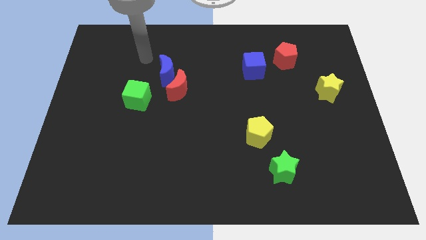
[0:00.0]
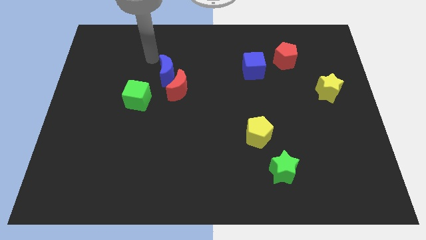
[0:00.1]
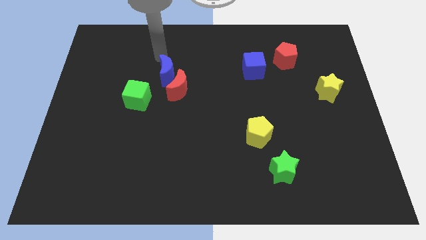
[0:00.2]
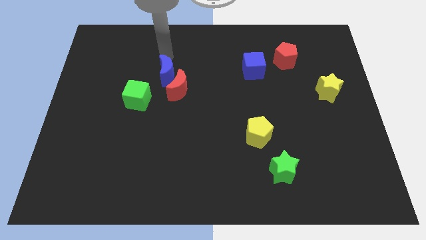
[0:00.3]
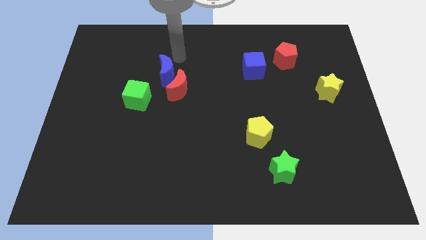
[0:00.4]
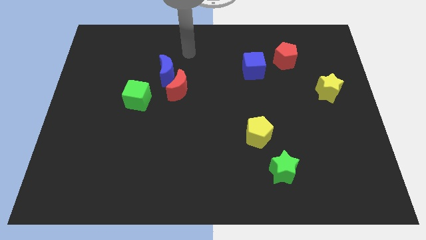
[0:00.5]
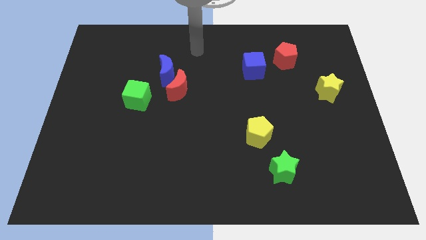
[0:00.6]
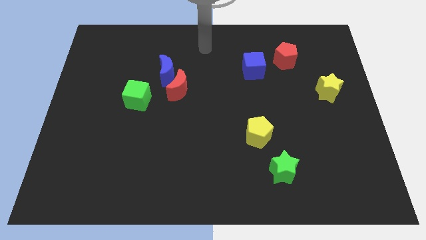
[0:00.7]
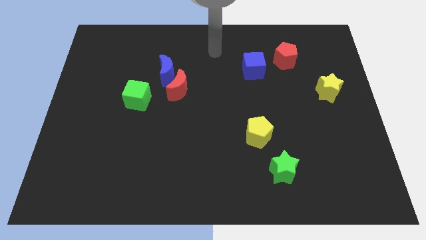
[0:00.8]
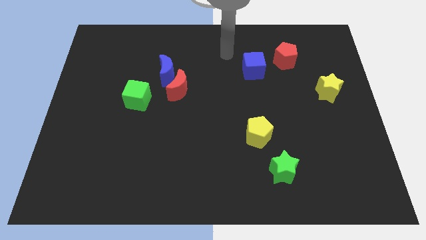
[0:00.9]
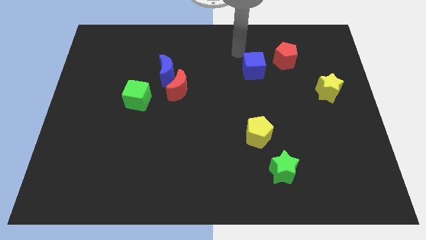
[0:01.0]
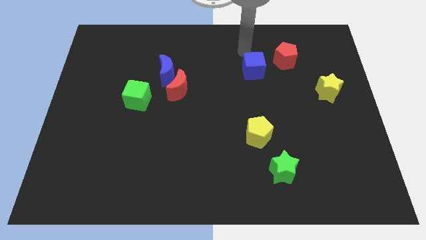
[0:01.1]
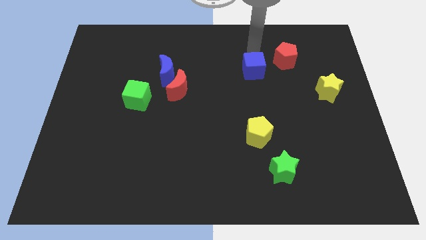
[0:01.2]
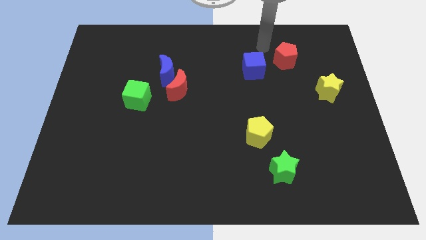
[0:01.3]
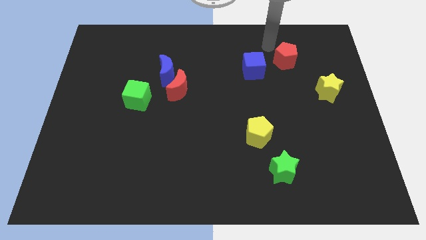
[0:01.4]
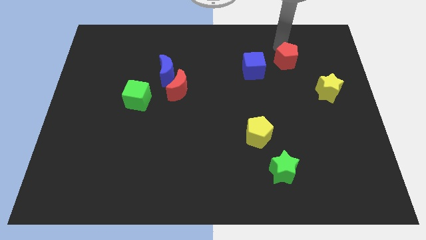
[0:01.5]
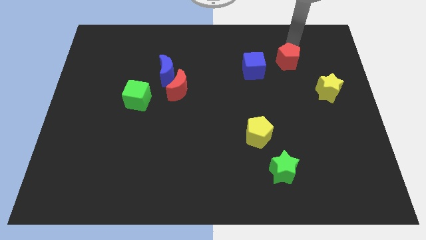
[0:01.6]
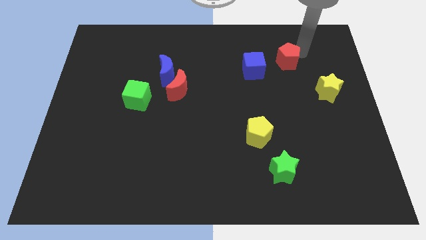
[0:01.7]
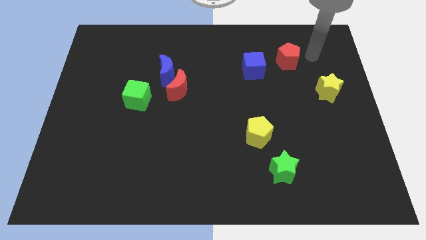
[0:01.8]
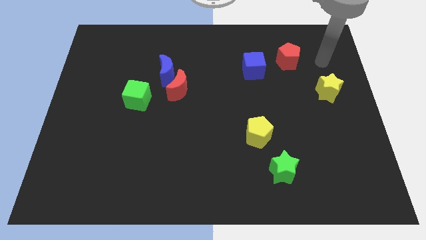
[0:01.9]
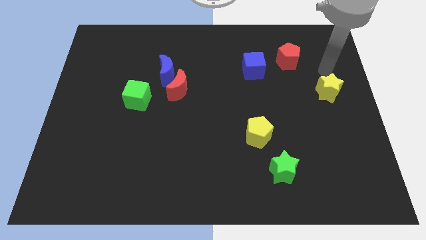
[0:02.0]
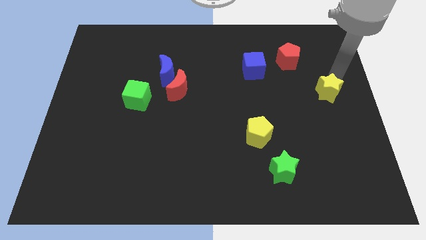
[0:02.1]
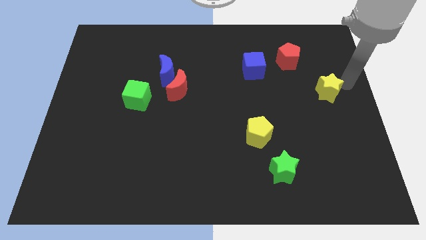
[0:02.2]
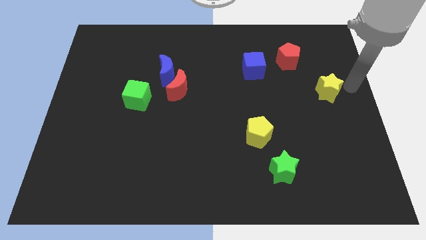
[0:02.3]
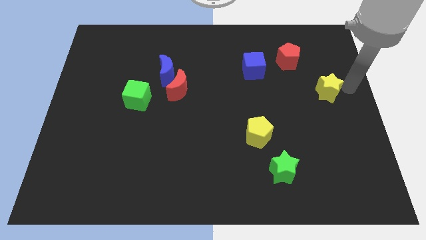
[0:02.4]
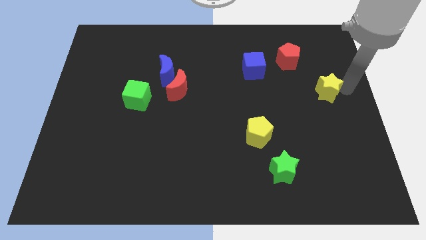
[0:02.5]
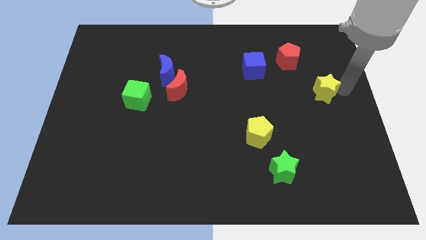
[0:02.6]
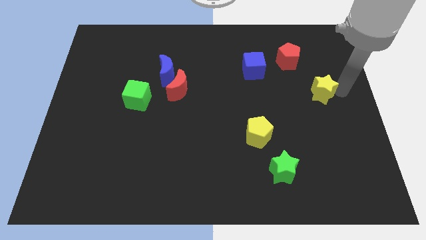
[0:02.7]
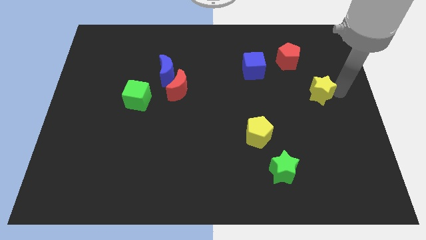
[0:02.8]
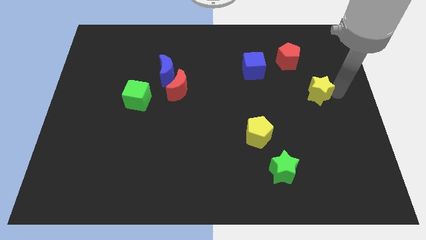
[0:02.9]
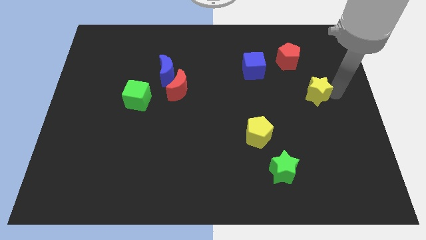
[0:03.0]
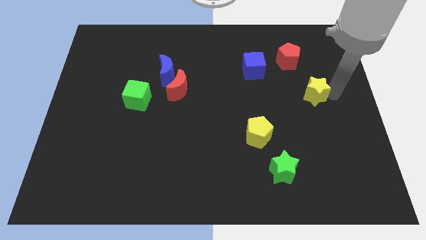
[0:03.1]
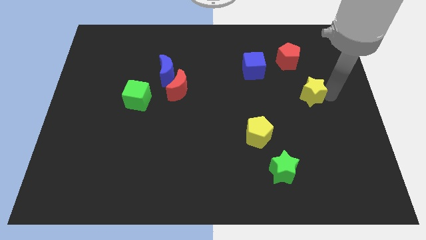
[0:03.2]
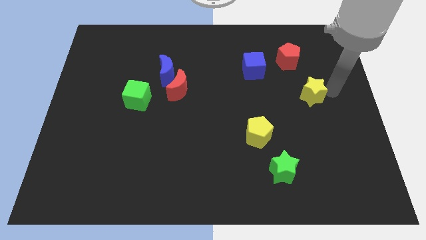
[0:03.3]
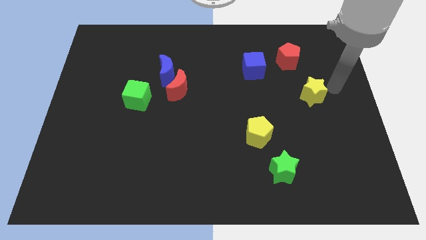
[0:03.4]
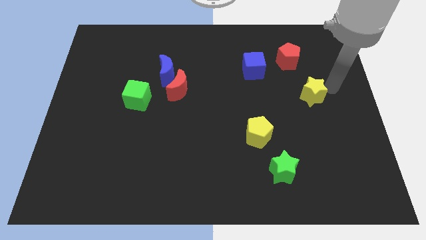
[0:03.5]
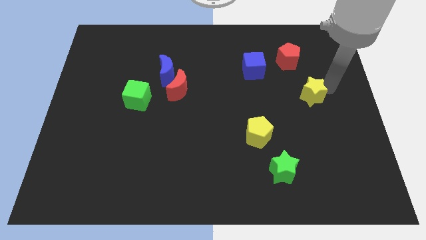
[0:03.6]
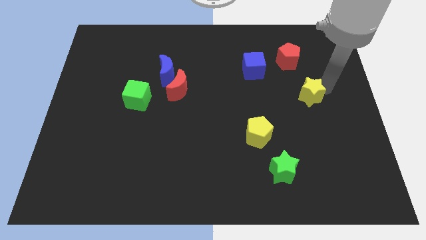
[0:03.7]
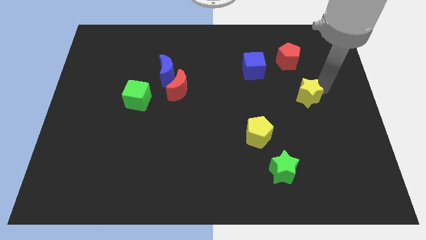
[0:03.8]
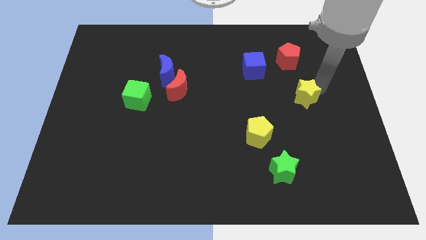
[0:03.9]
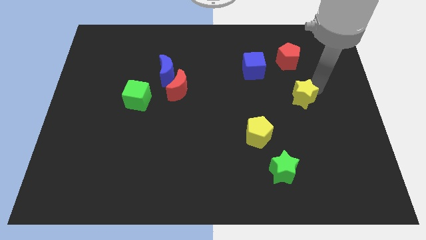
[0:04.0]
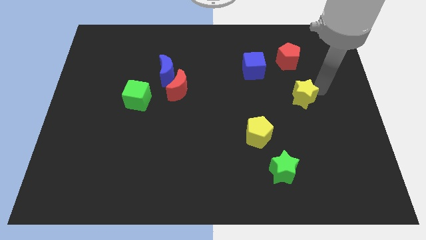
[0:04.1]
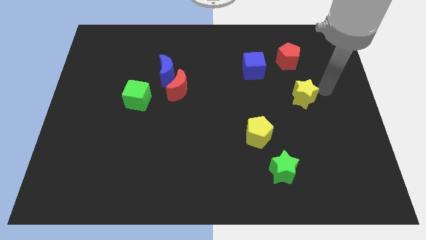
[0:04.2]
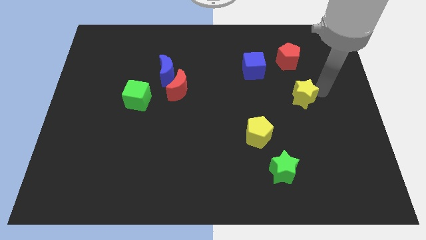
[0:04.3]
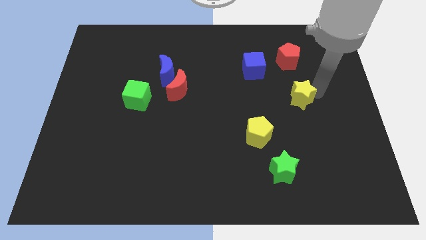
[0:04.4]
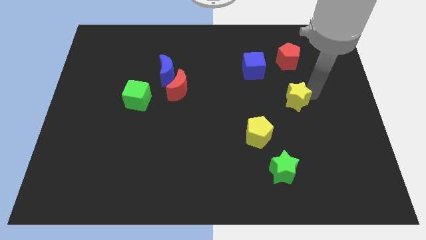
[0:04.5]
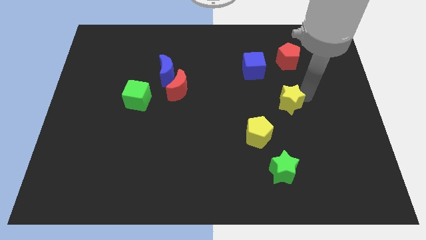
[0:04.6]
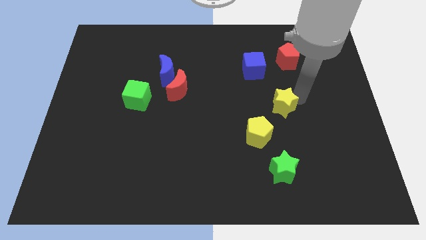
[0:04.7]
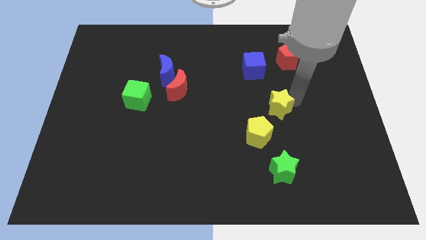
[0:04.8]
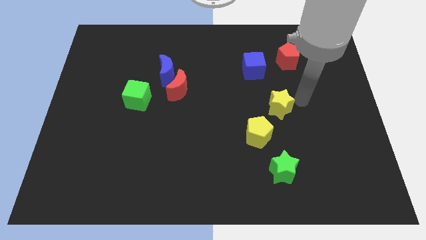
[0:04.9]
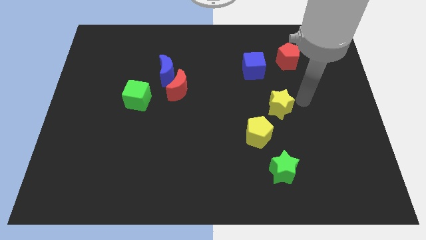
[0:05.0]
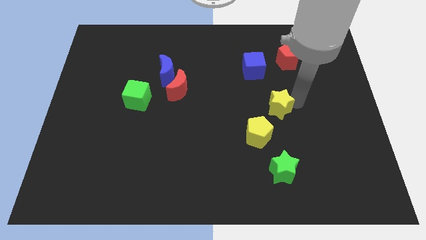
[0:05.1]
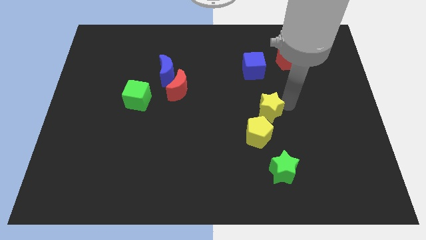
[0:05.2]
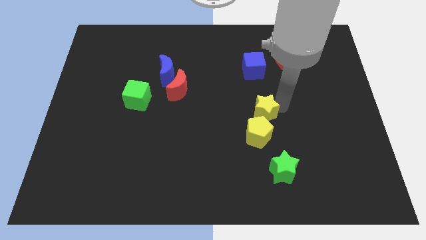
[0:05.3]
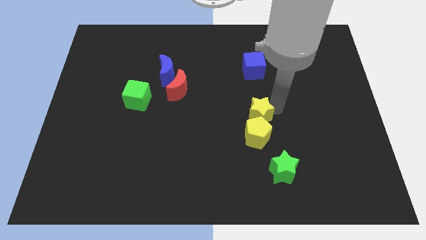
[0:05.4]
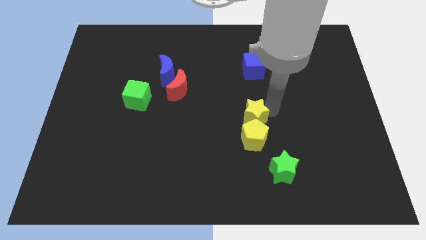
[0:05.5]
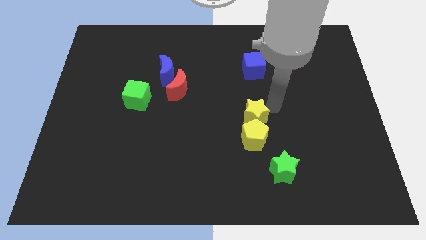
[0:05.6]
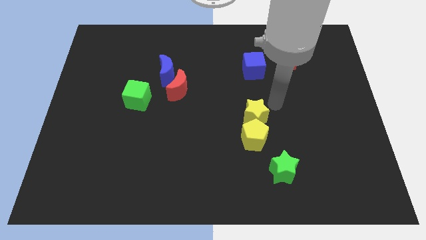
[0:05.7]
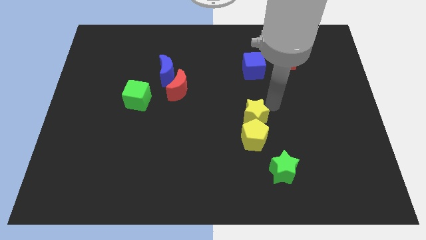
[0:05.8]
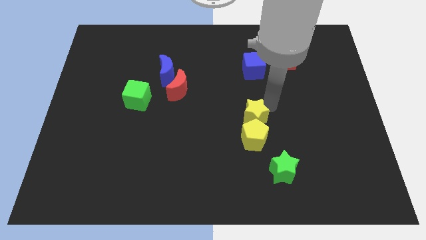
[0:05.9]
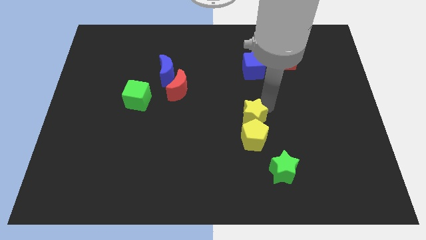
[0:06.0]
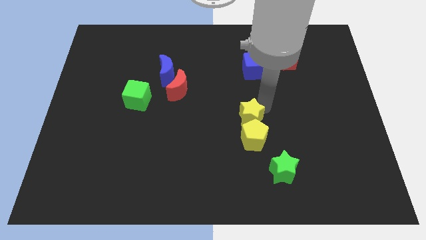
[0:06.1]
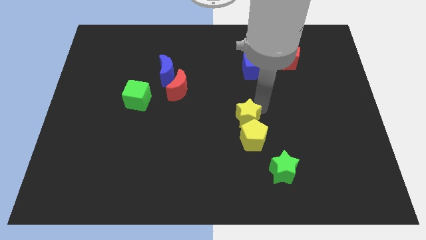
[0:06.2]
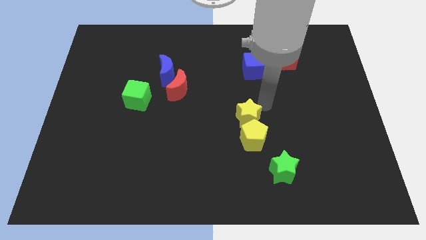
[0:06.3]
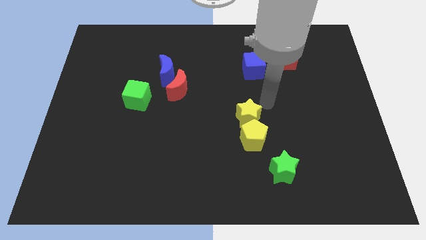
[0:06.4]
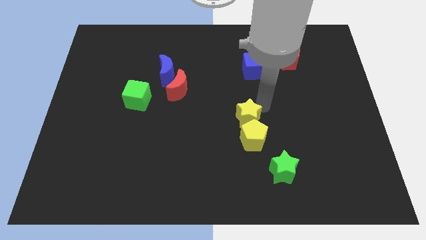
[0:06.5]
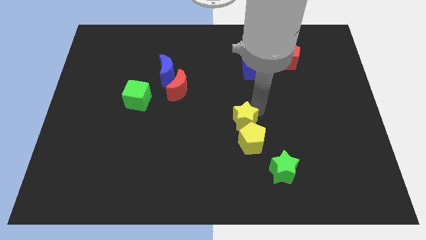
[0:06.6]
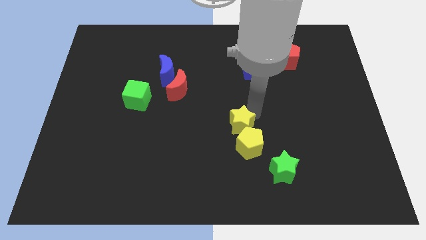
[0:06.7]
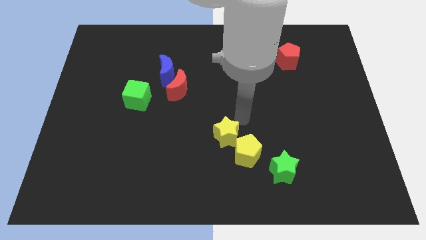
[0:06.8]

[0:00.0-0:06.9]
slide the yellow star downwards and to the left diagonally

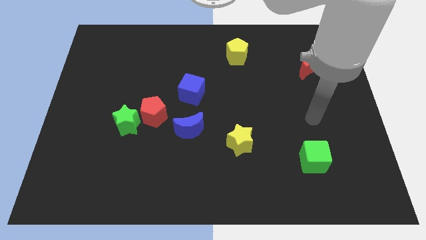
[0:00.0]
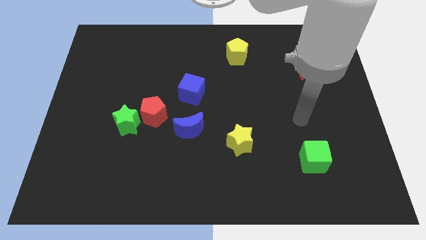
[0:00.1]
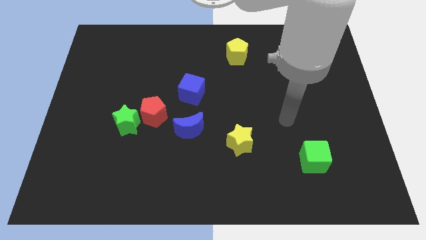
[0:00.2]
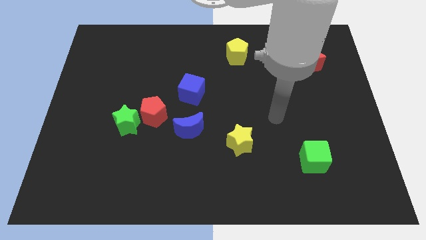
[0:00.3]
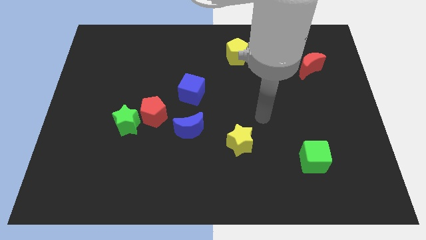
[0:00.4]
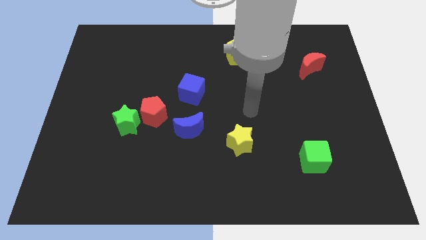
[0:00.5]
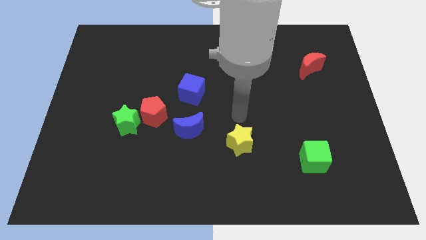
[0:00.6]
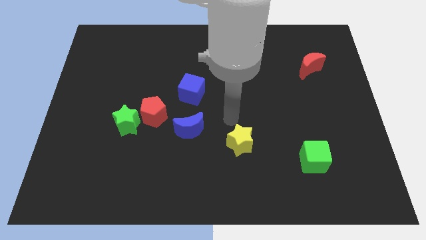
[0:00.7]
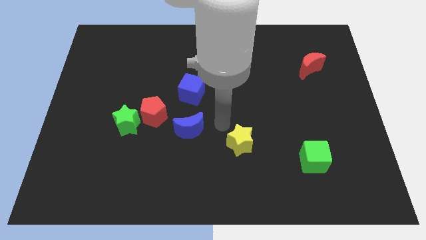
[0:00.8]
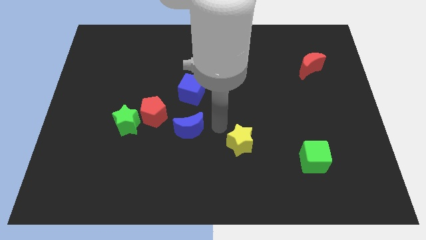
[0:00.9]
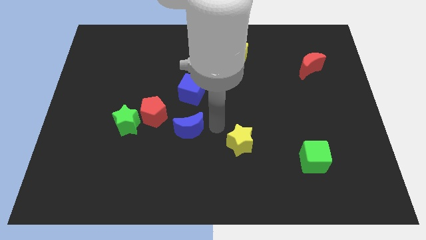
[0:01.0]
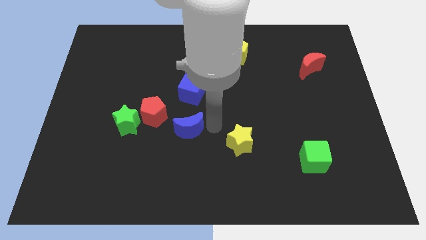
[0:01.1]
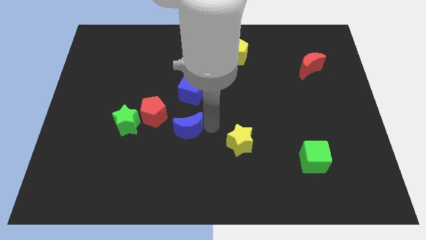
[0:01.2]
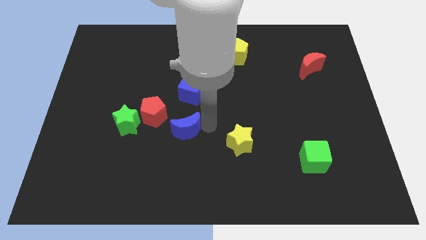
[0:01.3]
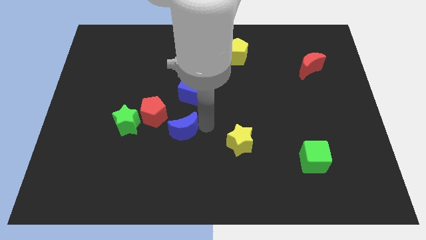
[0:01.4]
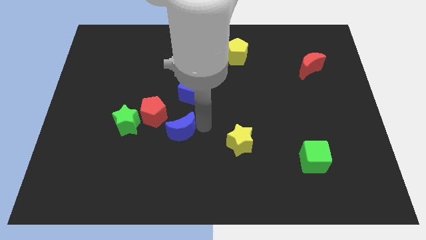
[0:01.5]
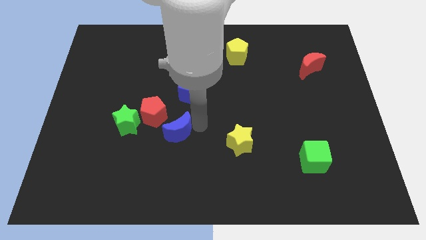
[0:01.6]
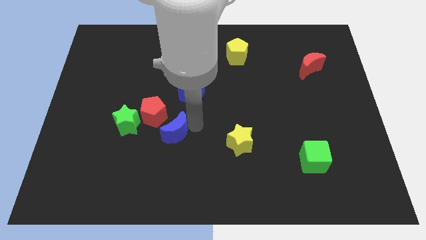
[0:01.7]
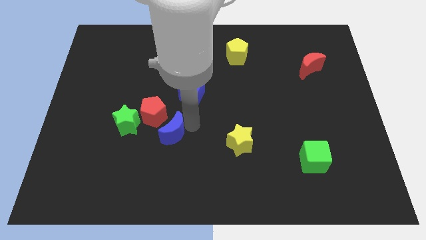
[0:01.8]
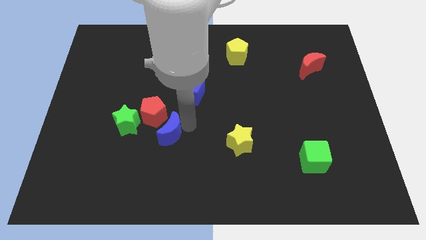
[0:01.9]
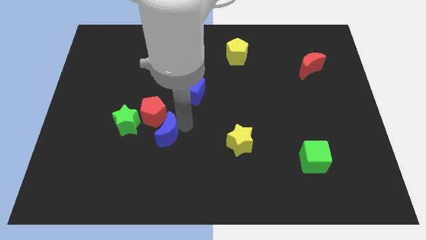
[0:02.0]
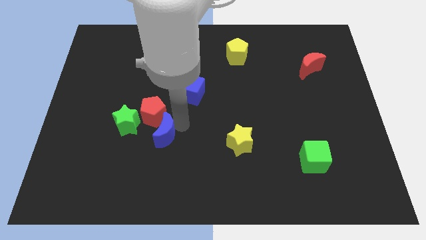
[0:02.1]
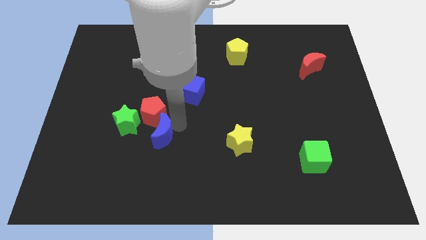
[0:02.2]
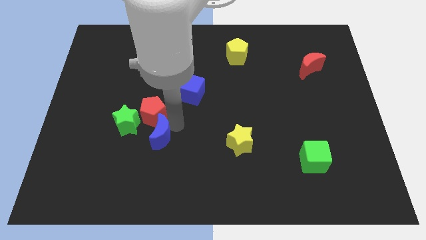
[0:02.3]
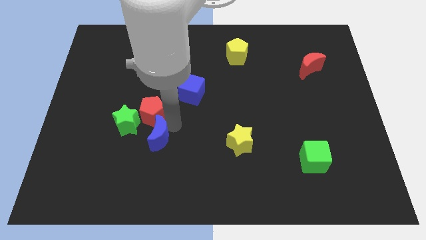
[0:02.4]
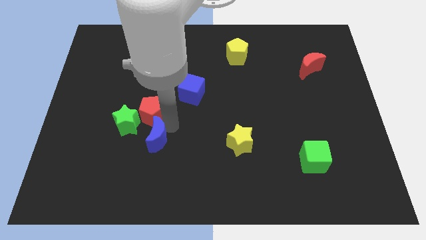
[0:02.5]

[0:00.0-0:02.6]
slide the blue moon left a little
